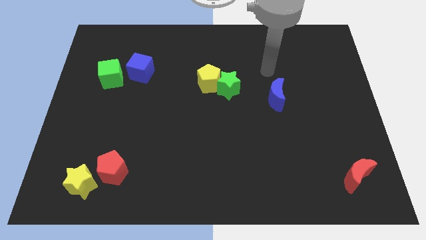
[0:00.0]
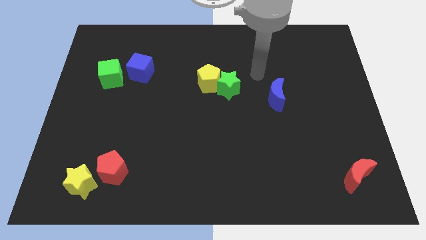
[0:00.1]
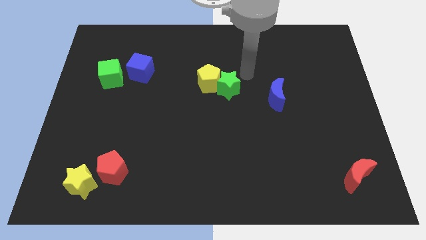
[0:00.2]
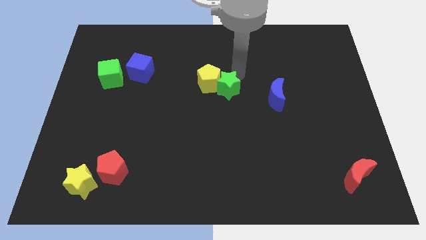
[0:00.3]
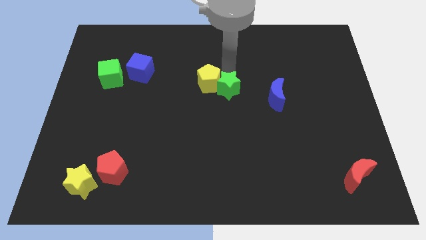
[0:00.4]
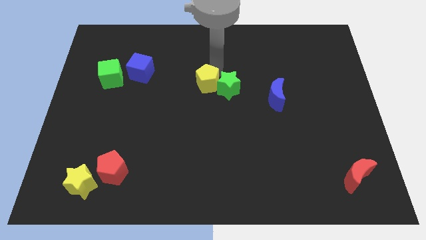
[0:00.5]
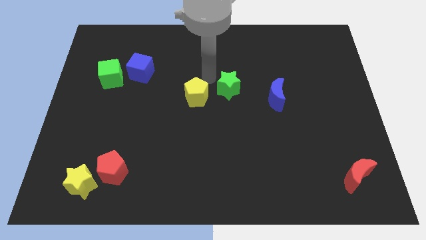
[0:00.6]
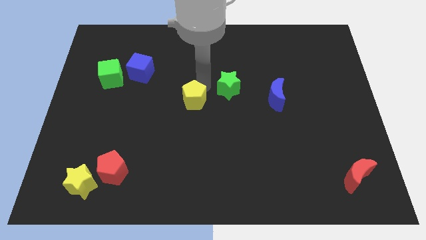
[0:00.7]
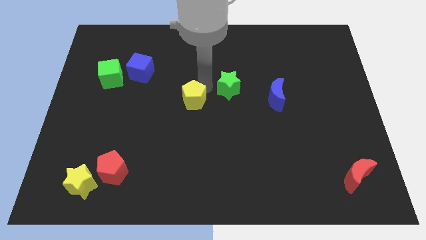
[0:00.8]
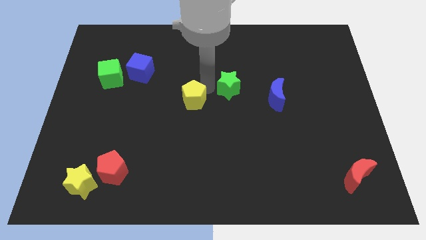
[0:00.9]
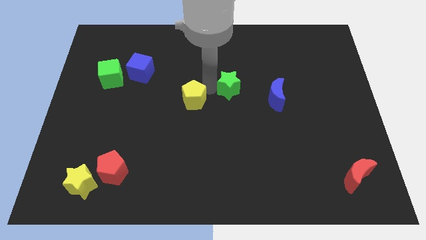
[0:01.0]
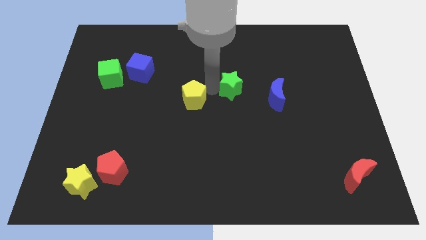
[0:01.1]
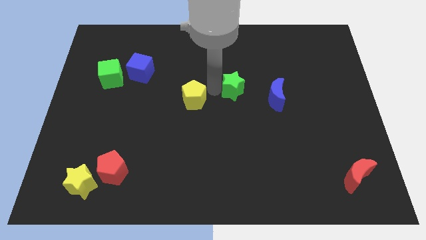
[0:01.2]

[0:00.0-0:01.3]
separate the green star from the yellow pentagon

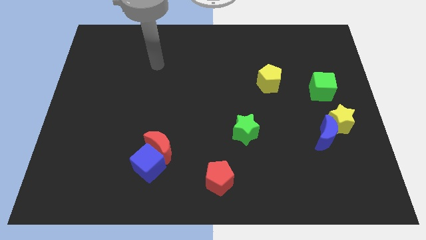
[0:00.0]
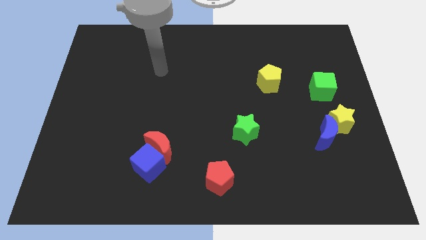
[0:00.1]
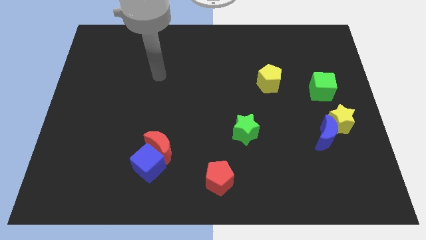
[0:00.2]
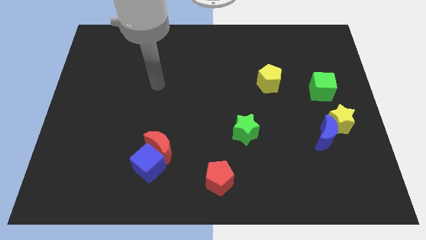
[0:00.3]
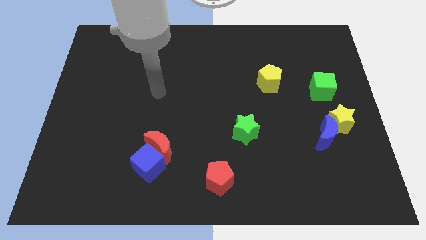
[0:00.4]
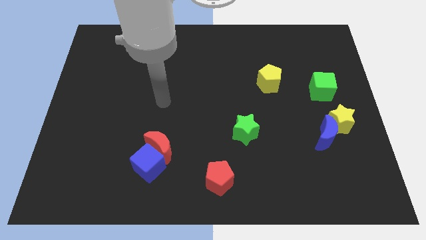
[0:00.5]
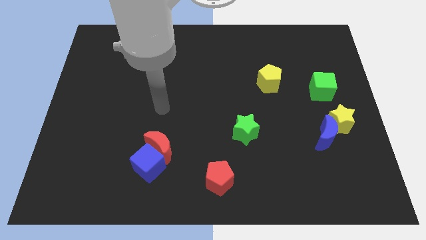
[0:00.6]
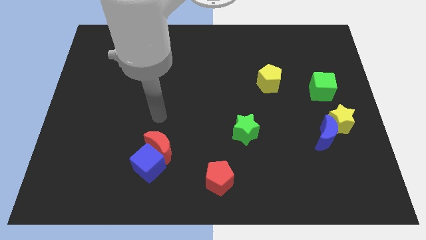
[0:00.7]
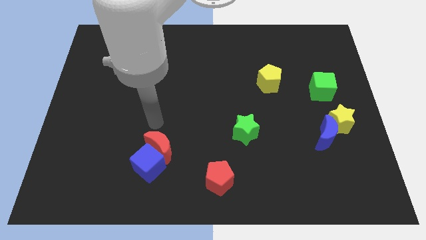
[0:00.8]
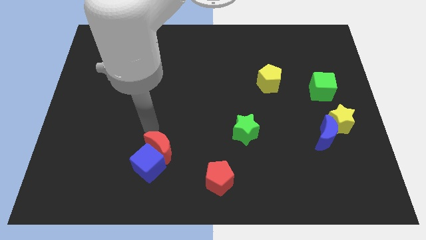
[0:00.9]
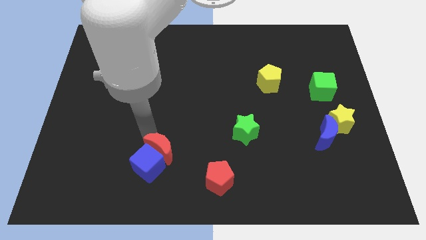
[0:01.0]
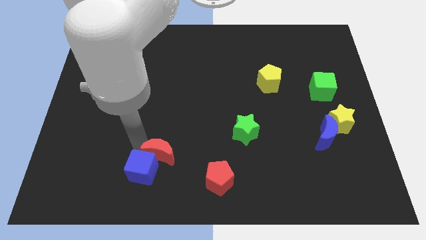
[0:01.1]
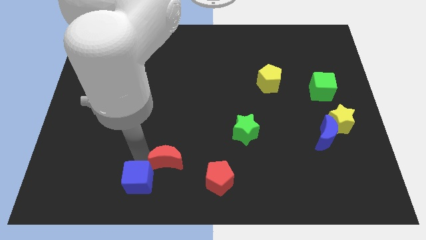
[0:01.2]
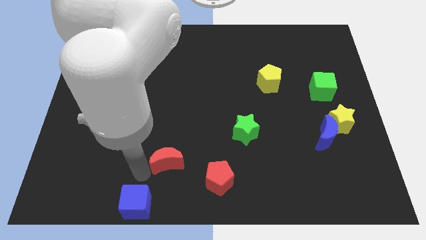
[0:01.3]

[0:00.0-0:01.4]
move the red moon away from the blue cube

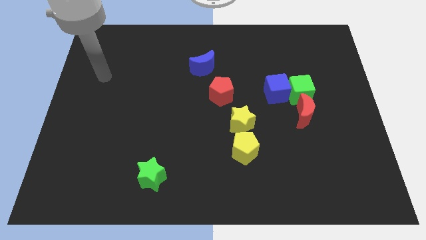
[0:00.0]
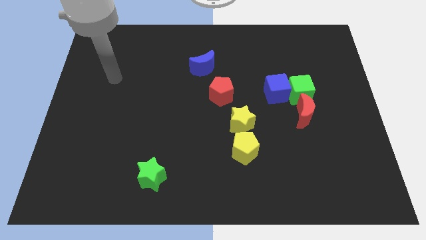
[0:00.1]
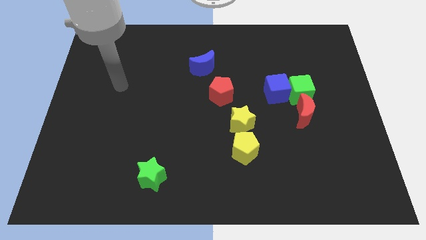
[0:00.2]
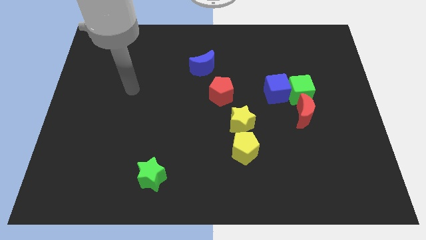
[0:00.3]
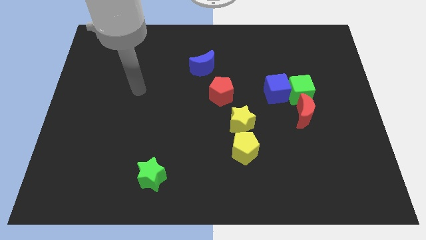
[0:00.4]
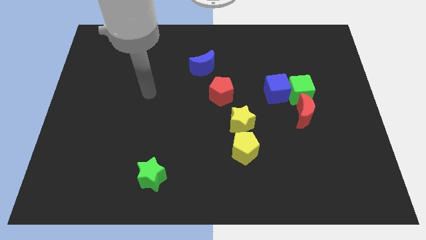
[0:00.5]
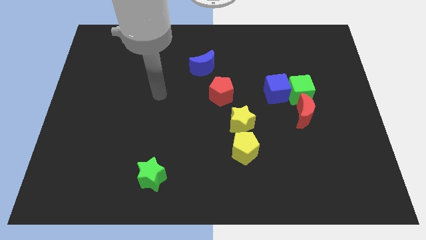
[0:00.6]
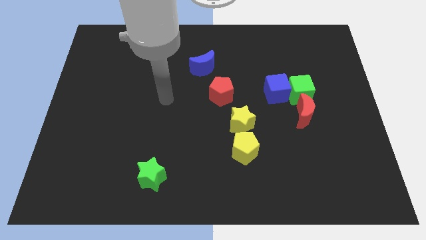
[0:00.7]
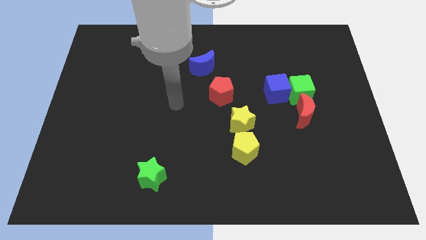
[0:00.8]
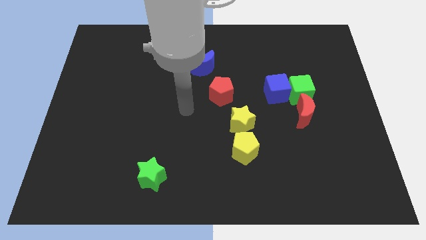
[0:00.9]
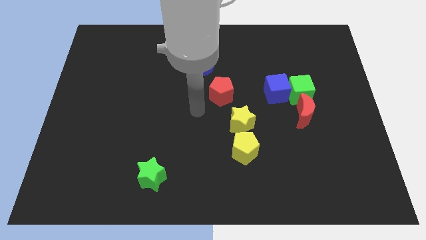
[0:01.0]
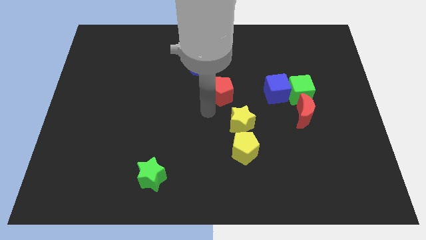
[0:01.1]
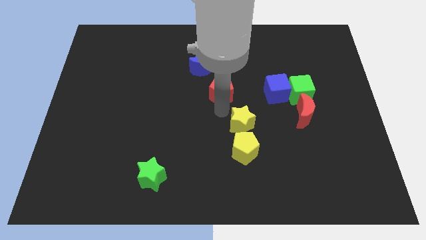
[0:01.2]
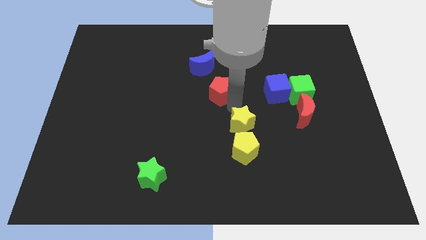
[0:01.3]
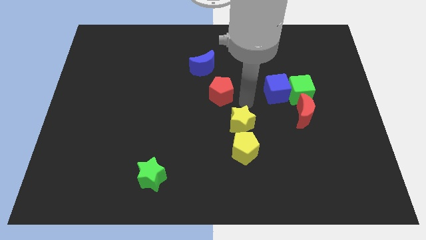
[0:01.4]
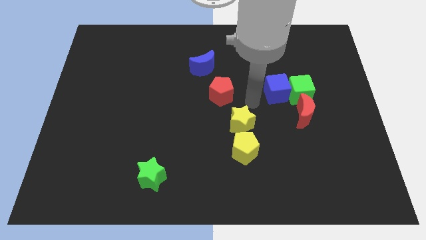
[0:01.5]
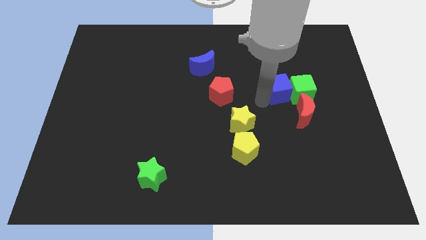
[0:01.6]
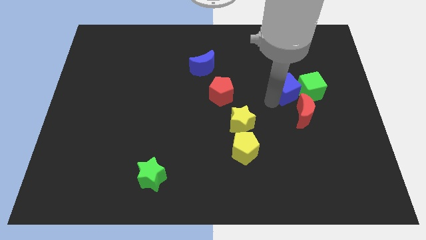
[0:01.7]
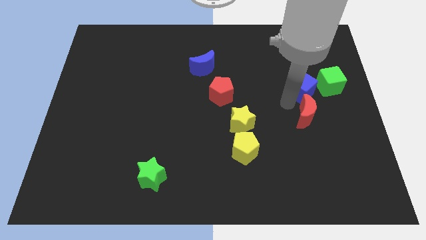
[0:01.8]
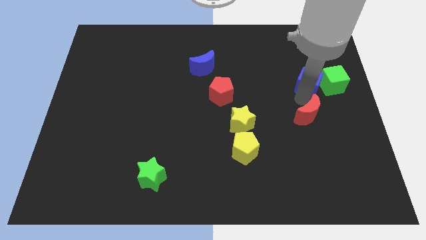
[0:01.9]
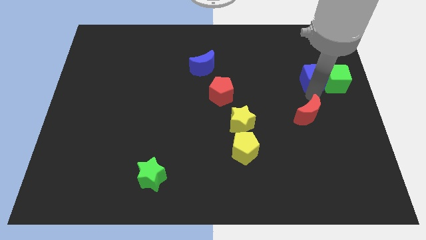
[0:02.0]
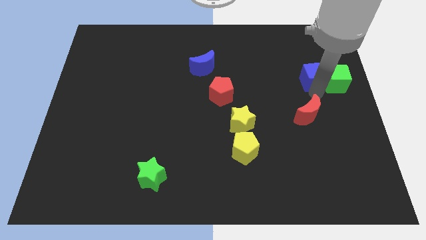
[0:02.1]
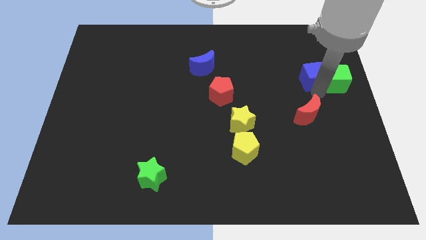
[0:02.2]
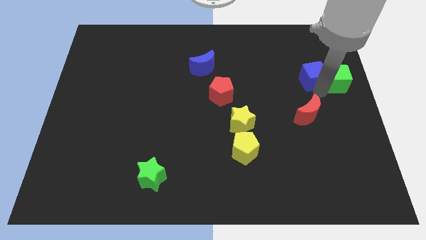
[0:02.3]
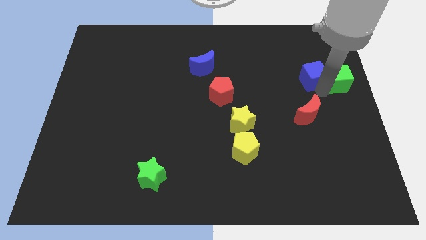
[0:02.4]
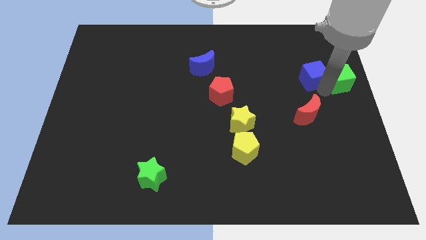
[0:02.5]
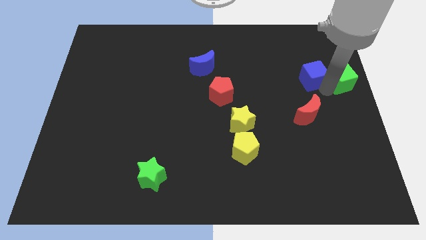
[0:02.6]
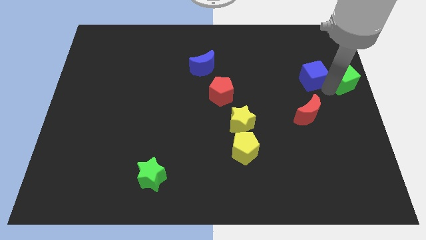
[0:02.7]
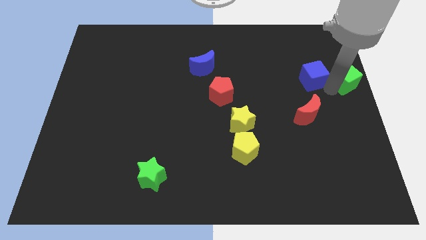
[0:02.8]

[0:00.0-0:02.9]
pull the green cube apart from the blue cube and red moon

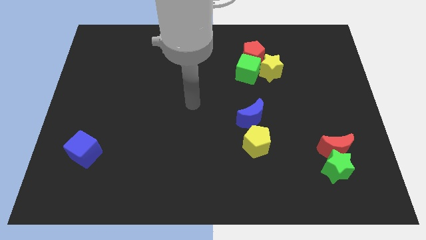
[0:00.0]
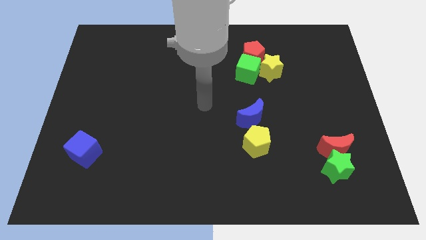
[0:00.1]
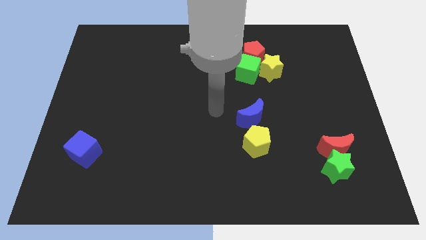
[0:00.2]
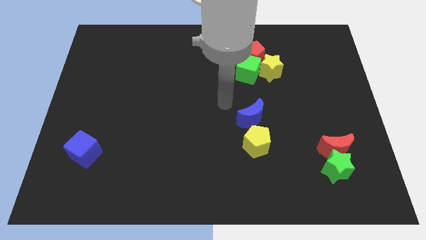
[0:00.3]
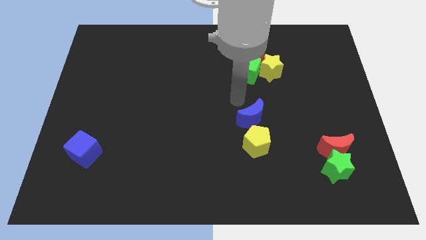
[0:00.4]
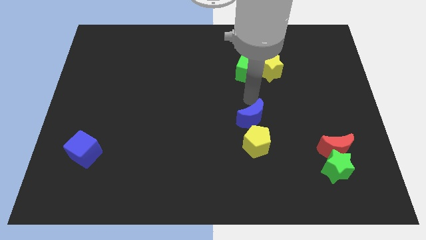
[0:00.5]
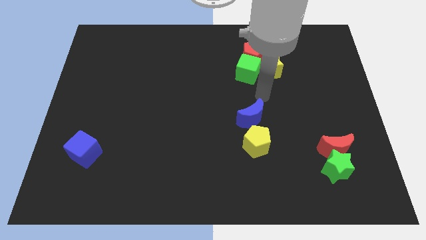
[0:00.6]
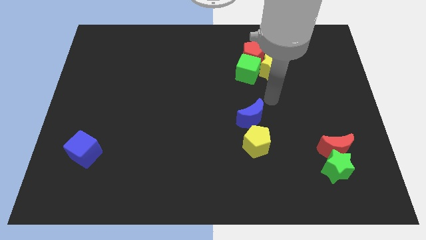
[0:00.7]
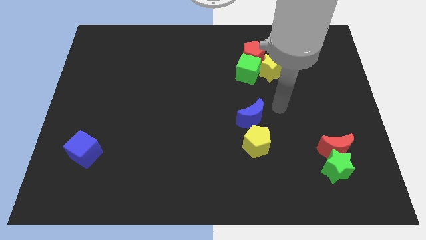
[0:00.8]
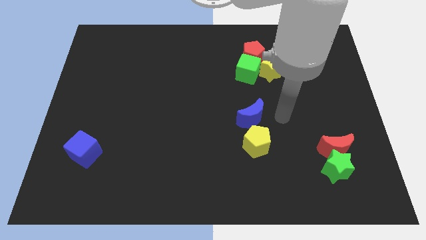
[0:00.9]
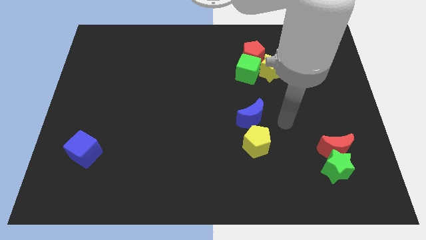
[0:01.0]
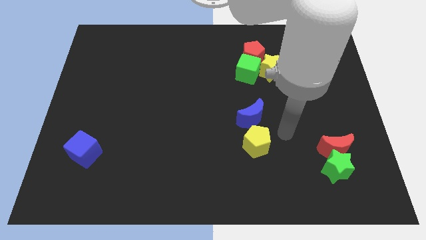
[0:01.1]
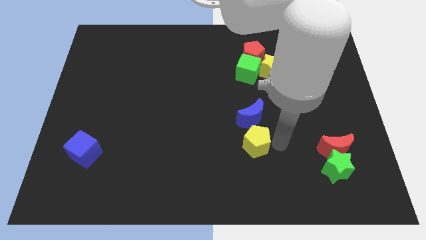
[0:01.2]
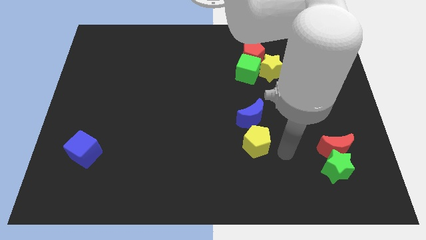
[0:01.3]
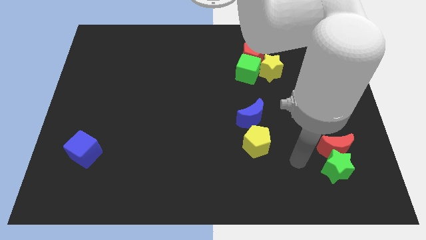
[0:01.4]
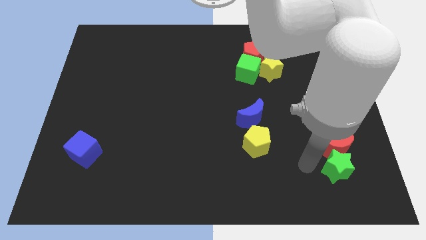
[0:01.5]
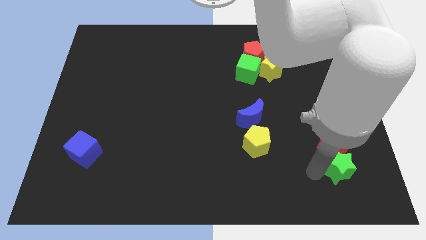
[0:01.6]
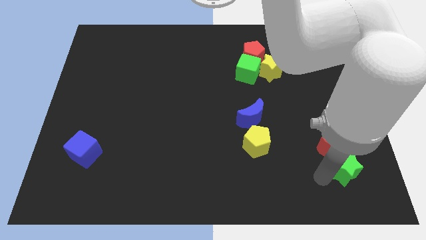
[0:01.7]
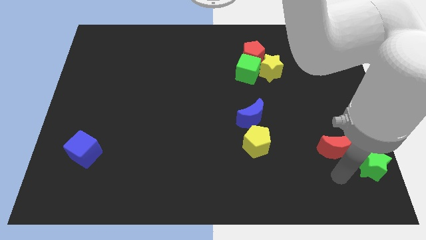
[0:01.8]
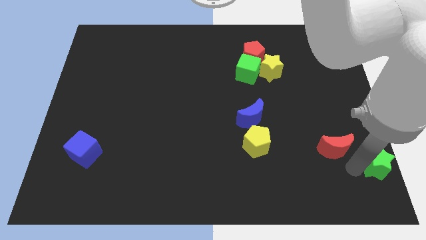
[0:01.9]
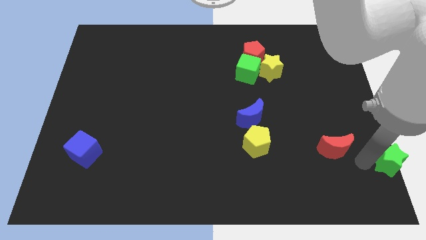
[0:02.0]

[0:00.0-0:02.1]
pull the red moon apart from the green star

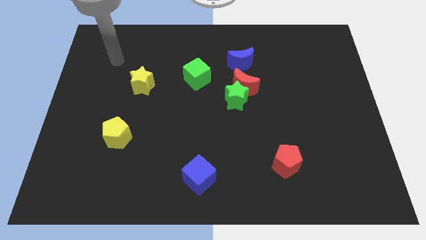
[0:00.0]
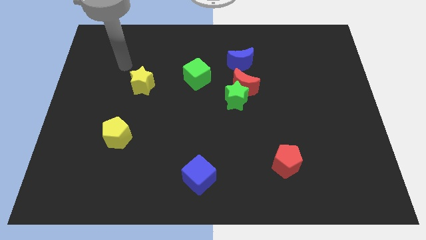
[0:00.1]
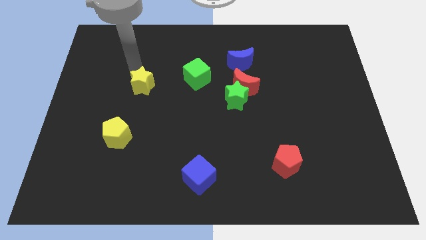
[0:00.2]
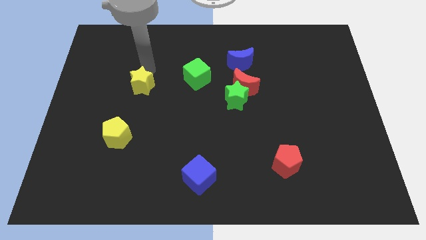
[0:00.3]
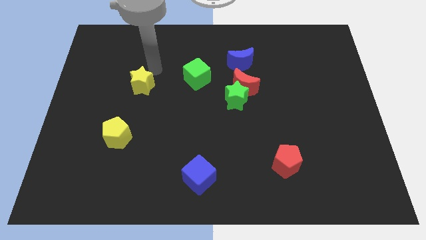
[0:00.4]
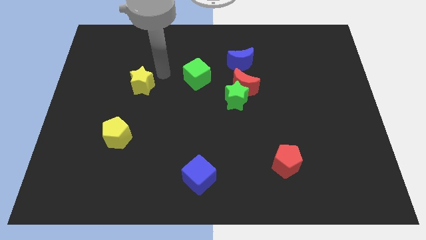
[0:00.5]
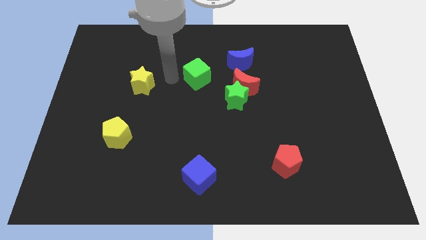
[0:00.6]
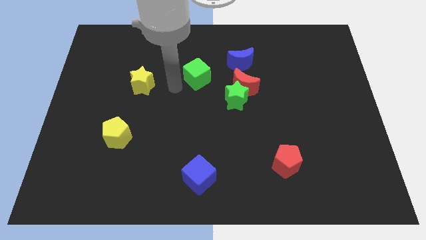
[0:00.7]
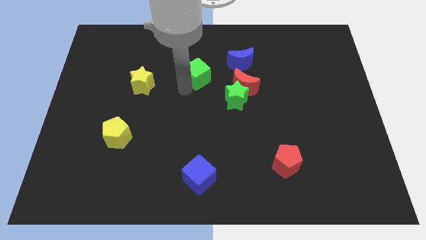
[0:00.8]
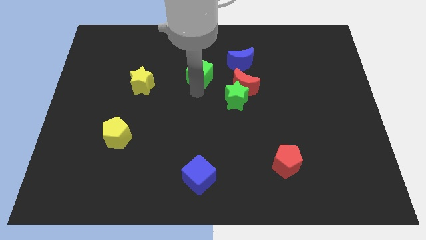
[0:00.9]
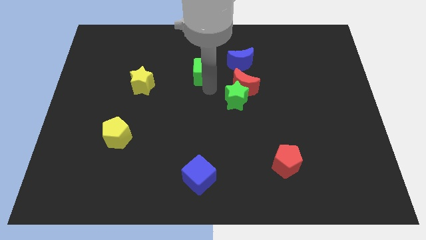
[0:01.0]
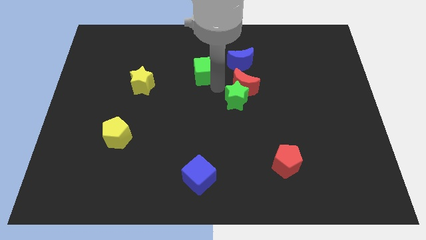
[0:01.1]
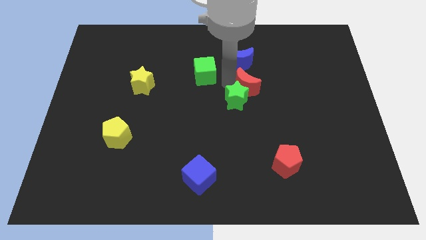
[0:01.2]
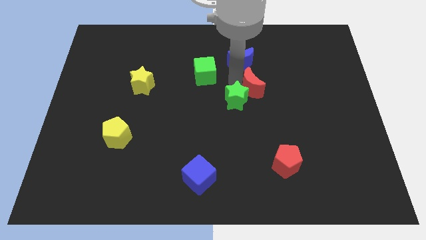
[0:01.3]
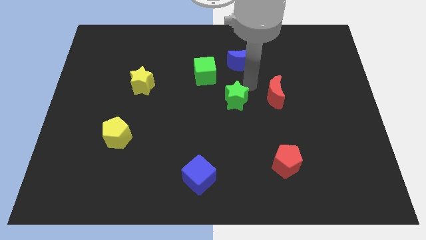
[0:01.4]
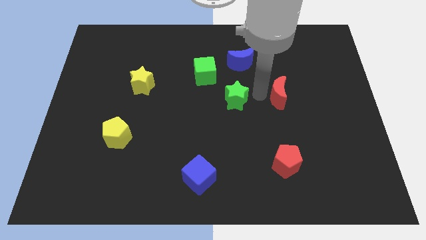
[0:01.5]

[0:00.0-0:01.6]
pull the green star apart from the red moon
